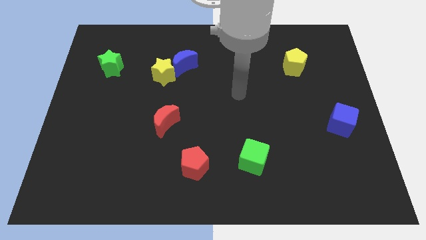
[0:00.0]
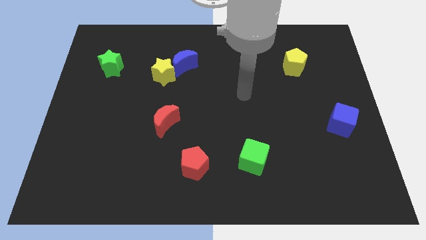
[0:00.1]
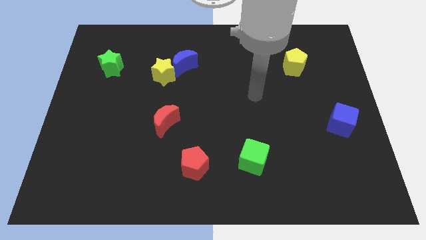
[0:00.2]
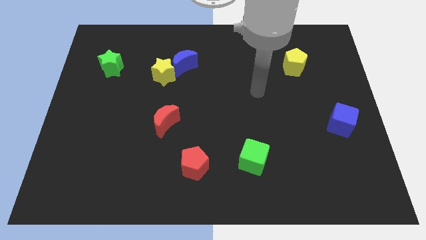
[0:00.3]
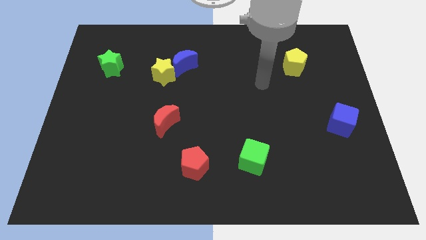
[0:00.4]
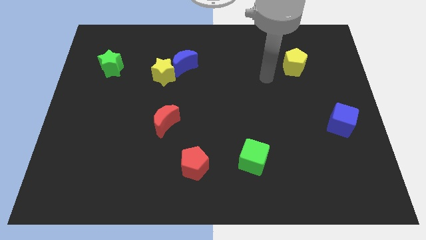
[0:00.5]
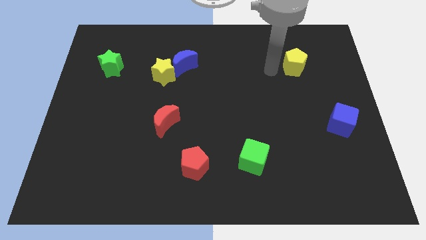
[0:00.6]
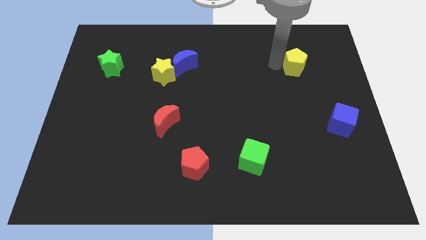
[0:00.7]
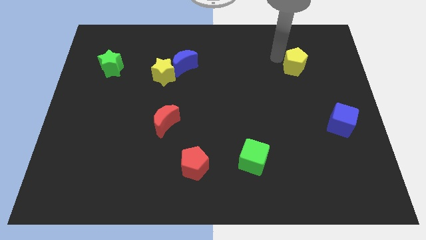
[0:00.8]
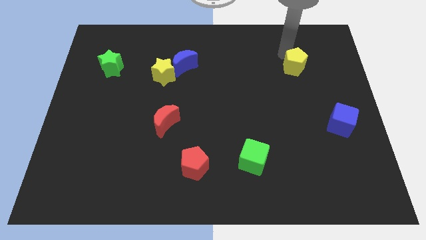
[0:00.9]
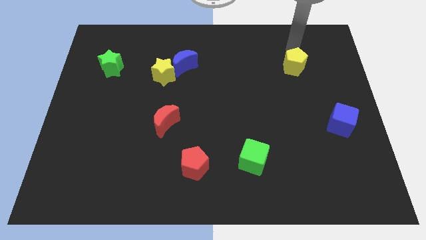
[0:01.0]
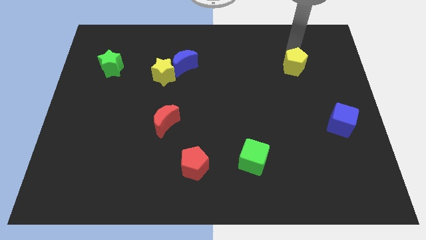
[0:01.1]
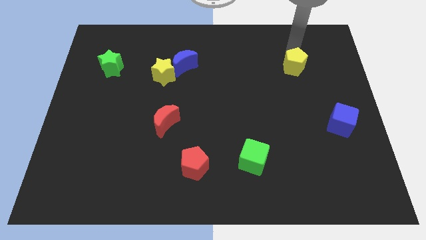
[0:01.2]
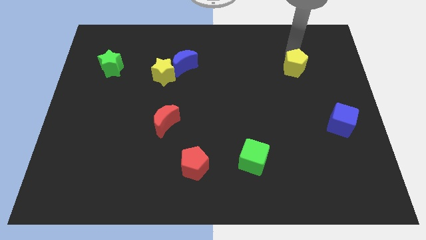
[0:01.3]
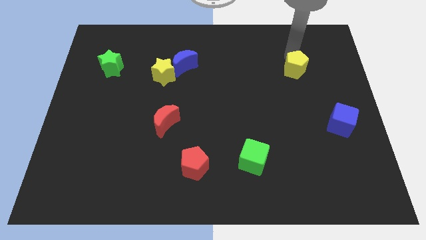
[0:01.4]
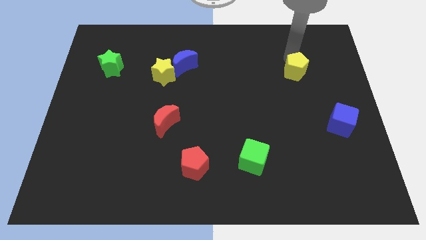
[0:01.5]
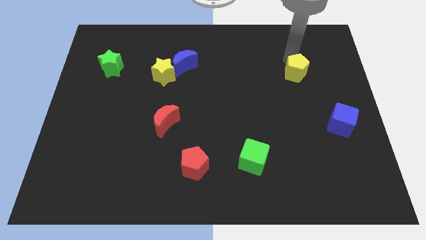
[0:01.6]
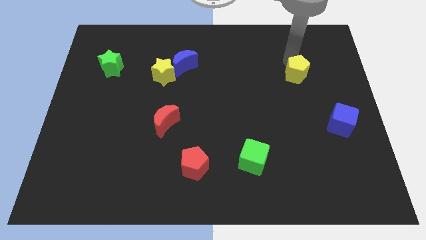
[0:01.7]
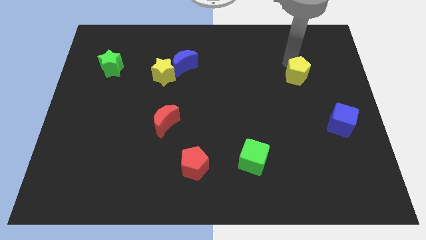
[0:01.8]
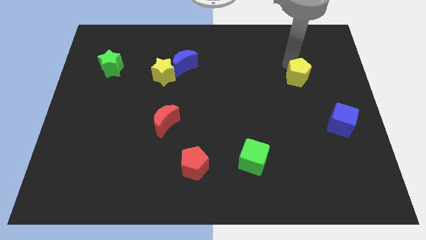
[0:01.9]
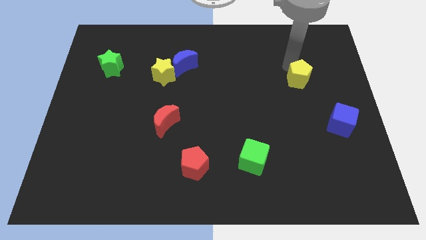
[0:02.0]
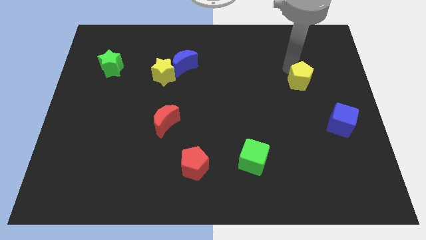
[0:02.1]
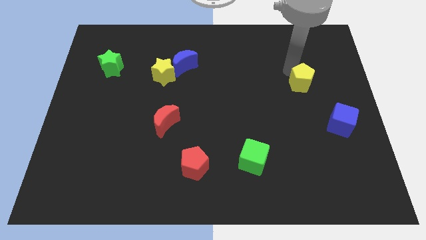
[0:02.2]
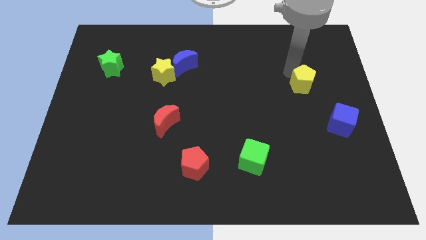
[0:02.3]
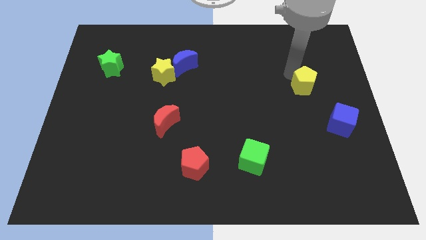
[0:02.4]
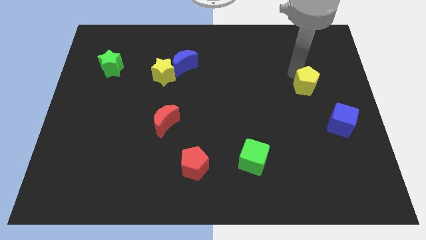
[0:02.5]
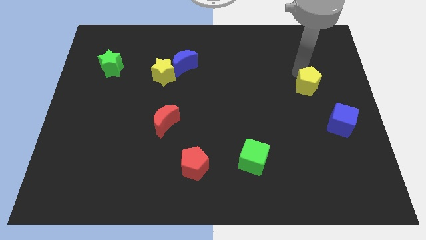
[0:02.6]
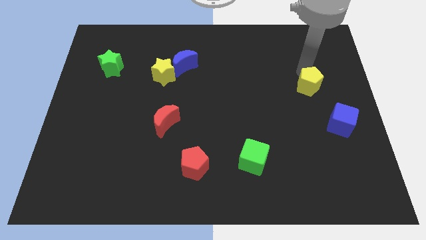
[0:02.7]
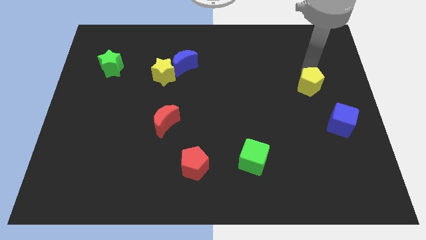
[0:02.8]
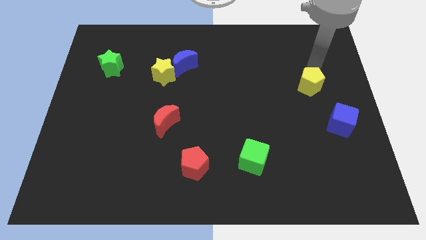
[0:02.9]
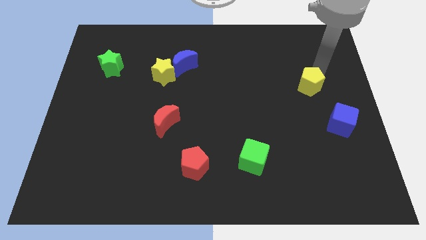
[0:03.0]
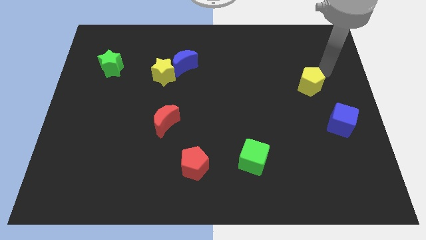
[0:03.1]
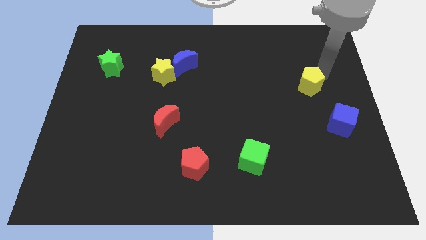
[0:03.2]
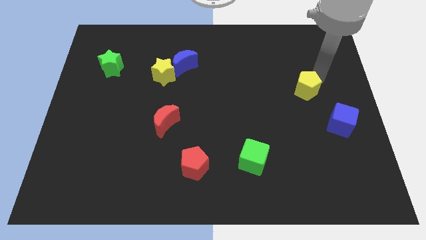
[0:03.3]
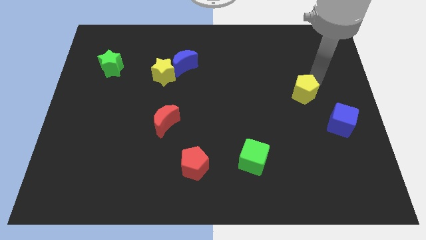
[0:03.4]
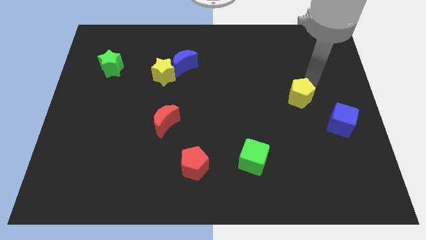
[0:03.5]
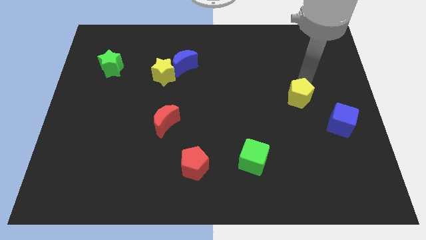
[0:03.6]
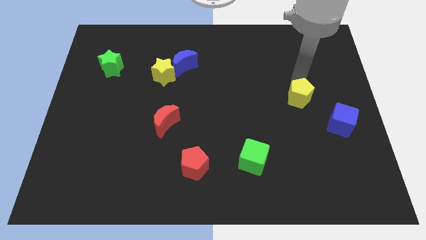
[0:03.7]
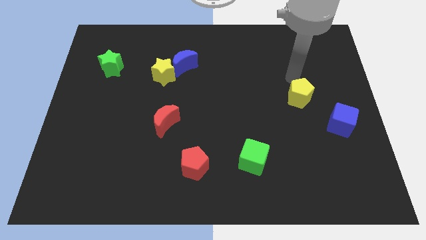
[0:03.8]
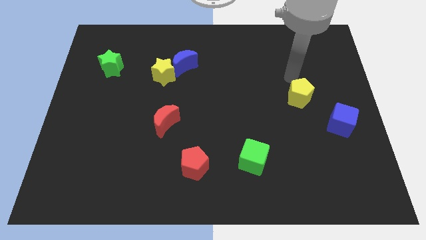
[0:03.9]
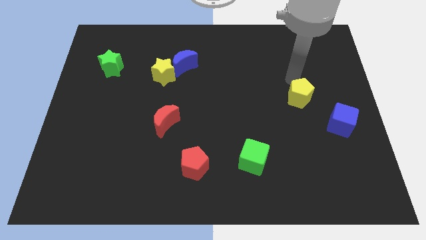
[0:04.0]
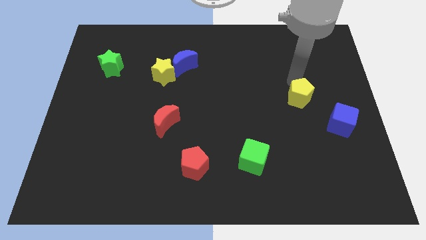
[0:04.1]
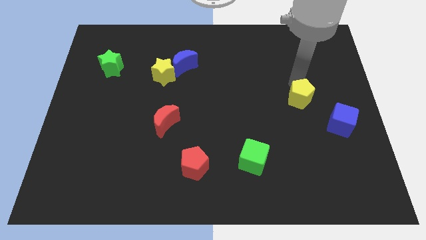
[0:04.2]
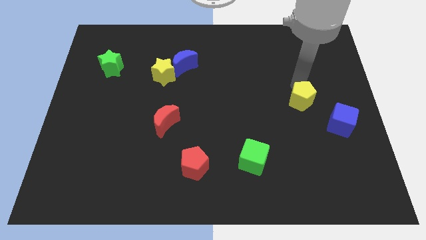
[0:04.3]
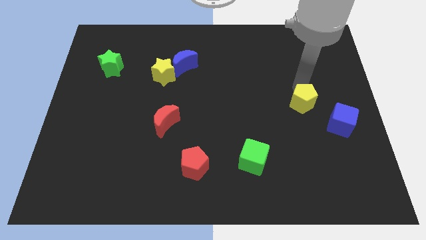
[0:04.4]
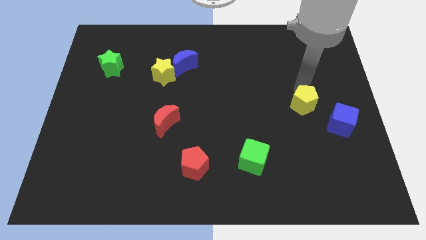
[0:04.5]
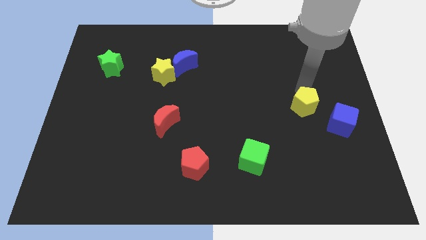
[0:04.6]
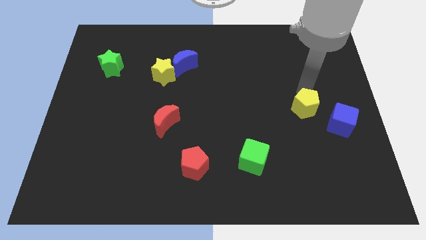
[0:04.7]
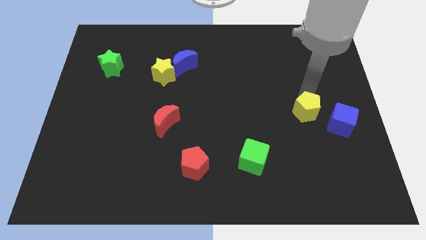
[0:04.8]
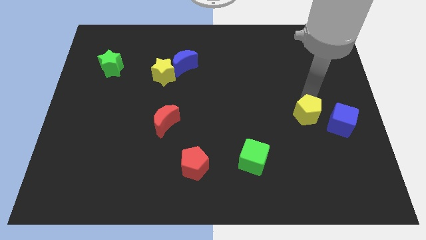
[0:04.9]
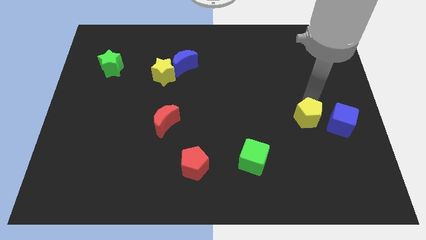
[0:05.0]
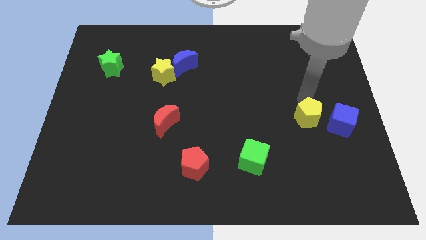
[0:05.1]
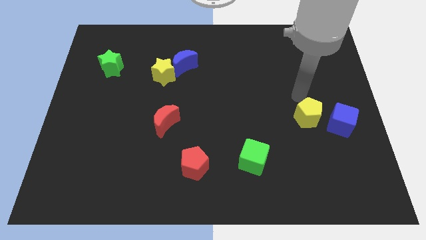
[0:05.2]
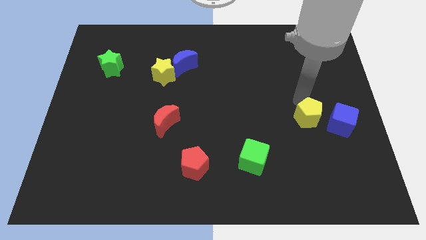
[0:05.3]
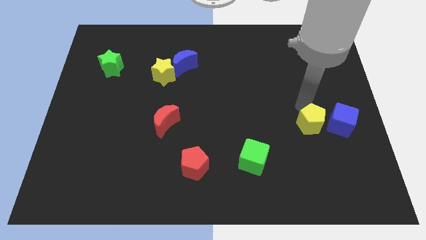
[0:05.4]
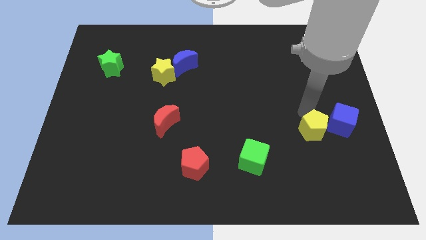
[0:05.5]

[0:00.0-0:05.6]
slide the yellow pentagon downwards

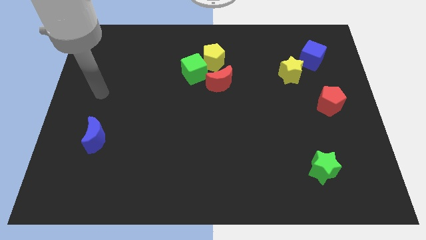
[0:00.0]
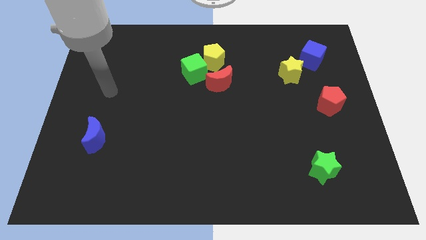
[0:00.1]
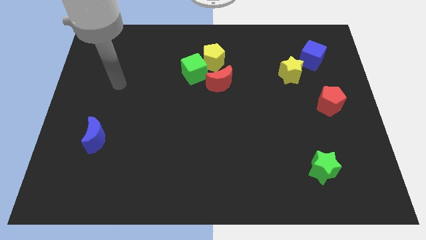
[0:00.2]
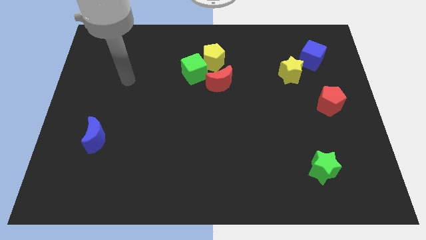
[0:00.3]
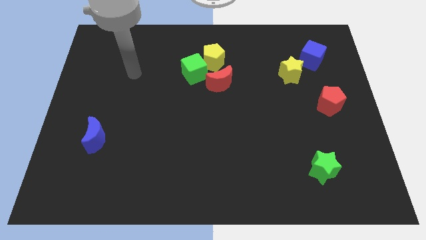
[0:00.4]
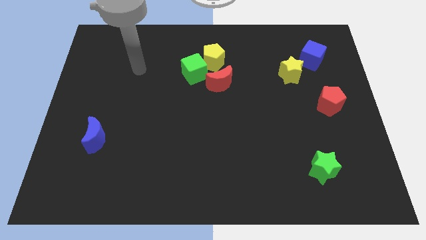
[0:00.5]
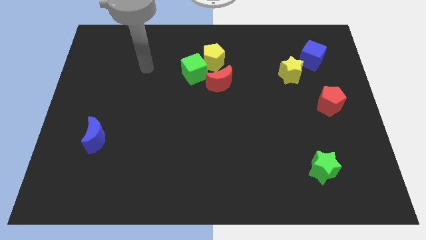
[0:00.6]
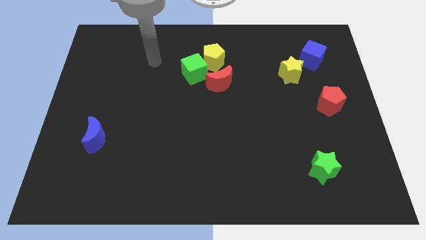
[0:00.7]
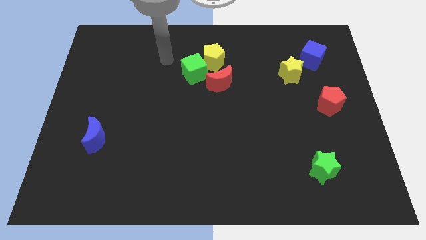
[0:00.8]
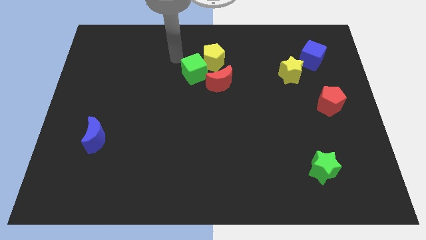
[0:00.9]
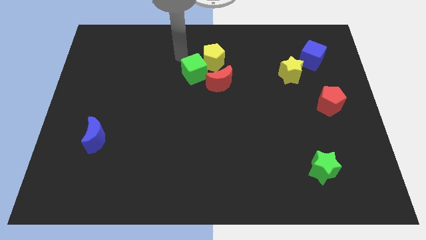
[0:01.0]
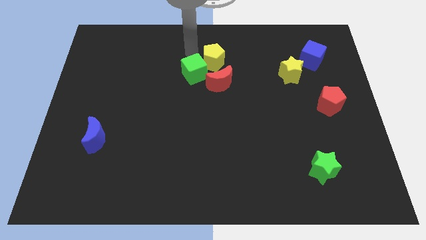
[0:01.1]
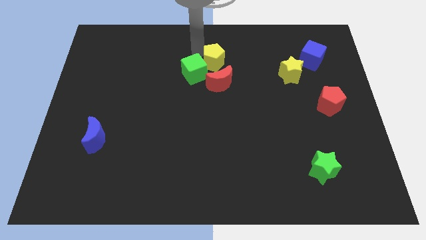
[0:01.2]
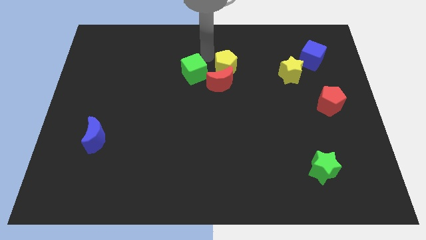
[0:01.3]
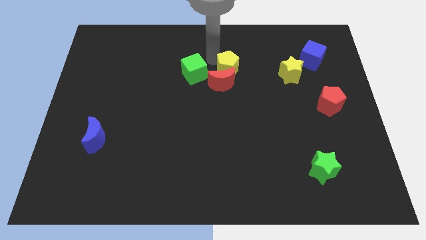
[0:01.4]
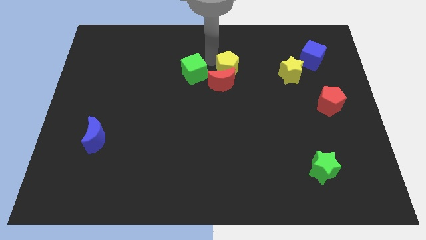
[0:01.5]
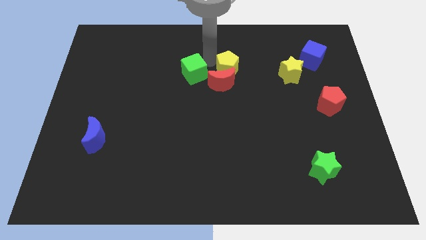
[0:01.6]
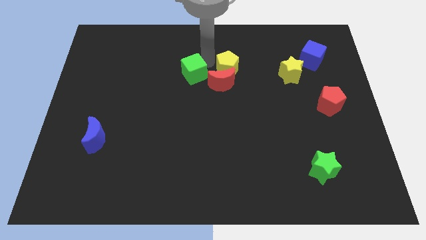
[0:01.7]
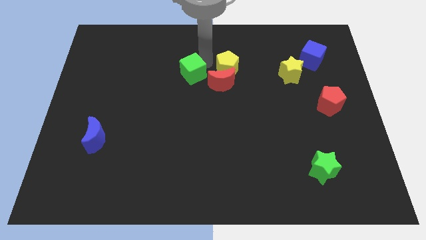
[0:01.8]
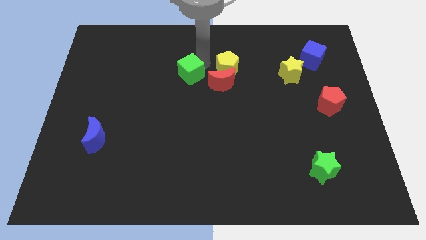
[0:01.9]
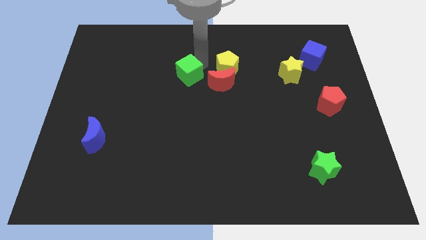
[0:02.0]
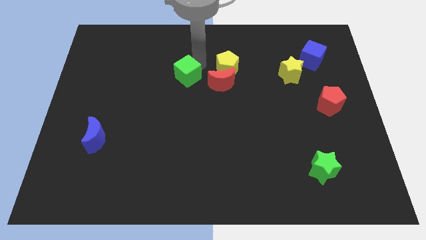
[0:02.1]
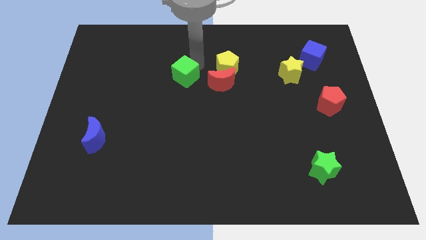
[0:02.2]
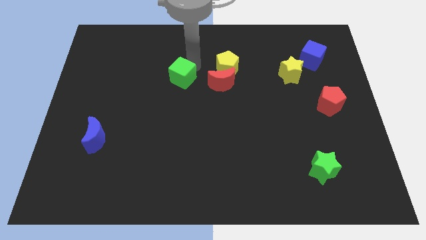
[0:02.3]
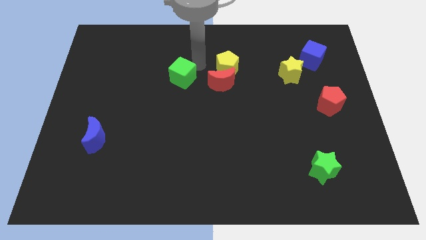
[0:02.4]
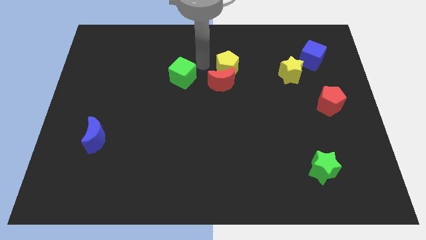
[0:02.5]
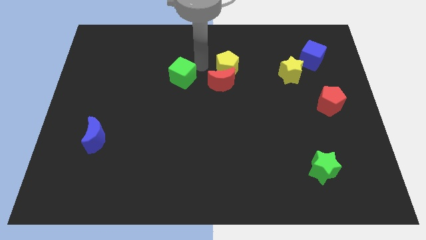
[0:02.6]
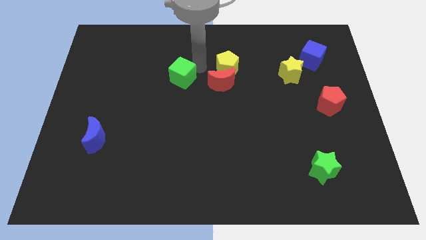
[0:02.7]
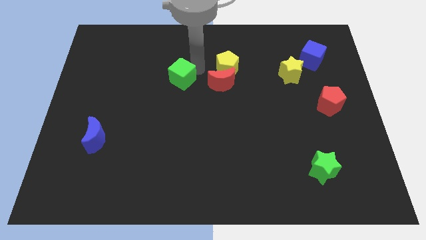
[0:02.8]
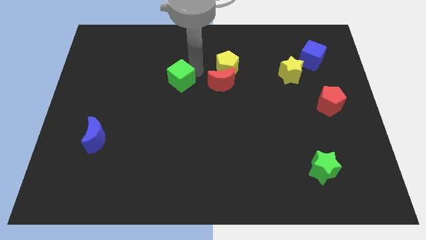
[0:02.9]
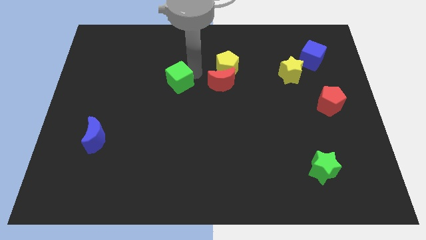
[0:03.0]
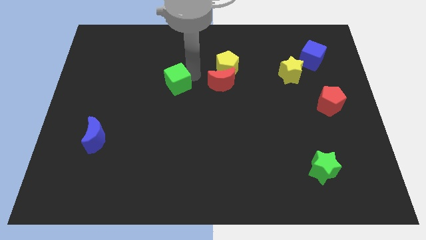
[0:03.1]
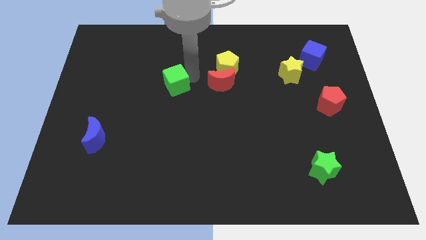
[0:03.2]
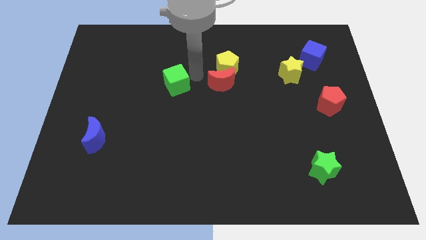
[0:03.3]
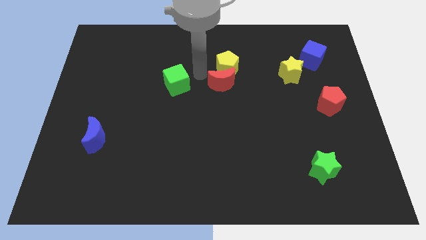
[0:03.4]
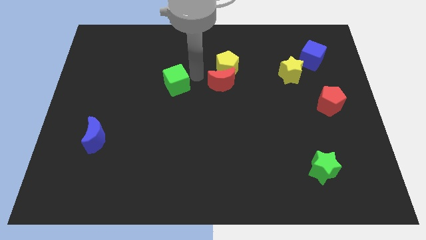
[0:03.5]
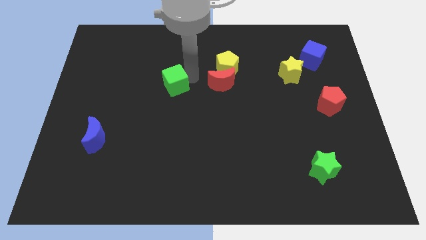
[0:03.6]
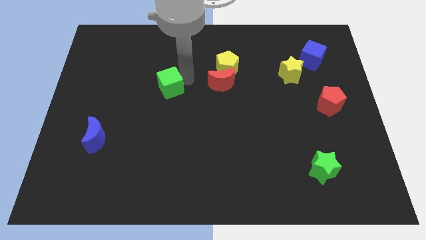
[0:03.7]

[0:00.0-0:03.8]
move the green cube a little bit down and left diagonally
